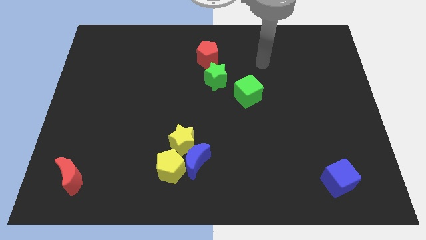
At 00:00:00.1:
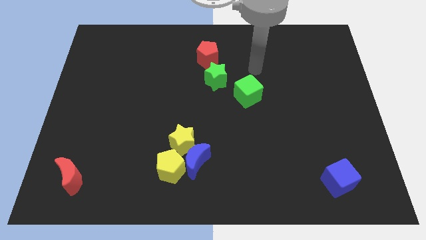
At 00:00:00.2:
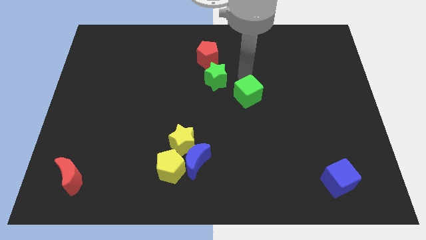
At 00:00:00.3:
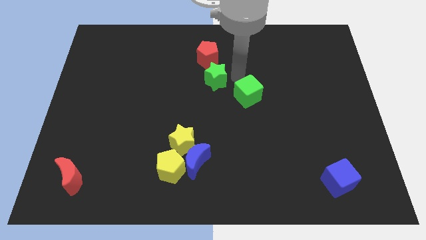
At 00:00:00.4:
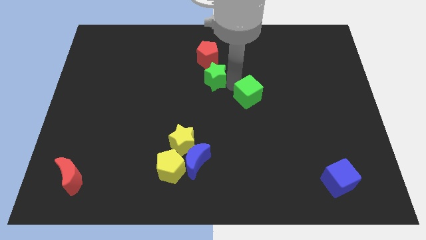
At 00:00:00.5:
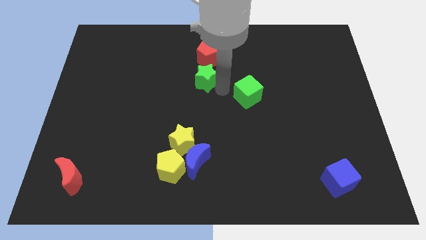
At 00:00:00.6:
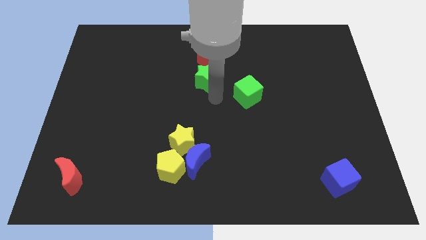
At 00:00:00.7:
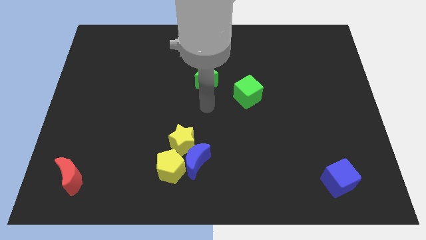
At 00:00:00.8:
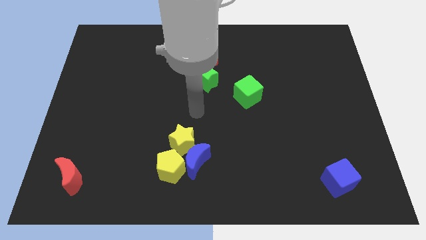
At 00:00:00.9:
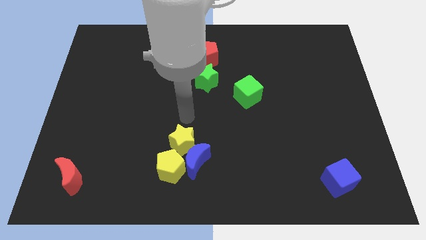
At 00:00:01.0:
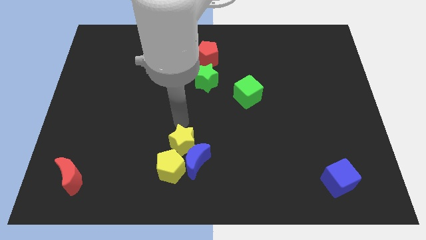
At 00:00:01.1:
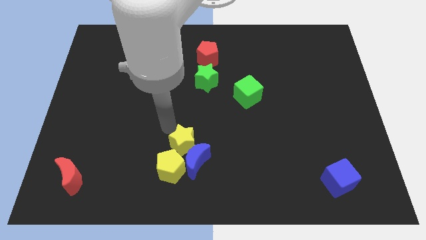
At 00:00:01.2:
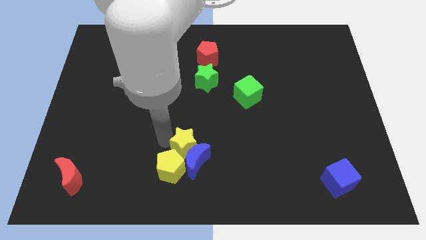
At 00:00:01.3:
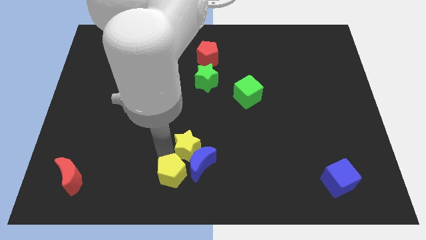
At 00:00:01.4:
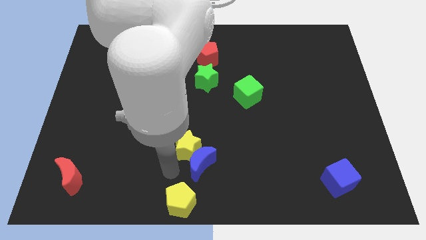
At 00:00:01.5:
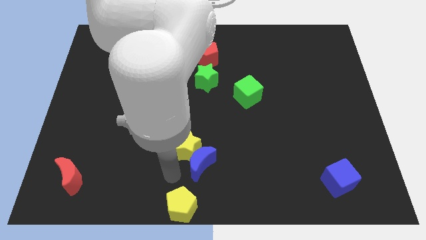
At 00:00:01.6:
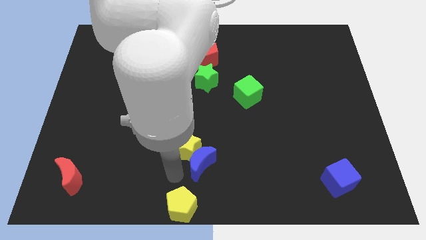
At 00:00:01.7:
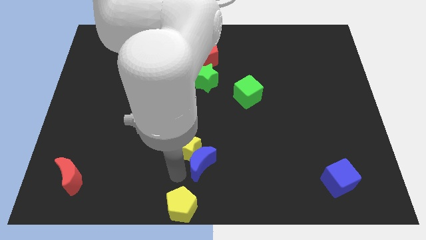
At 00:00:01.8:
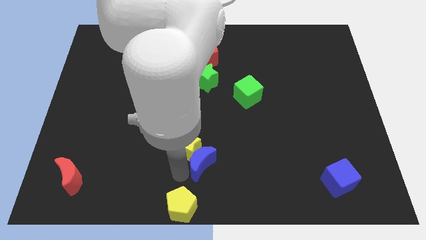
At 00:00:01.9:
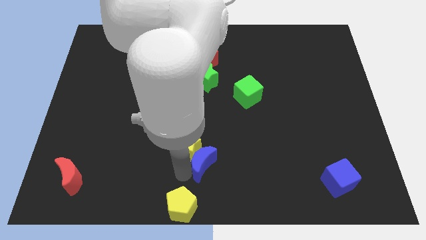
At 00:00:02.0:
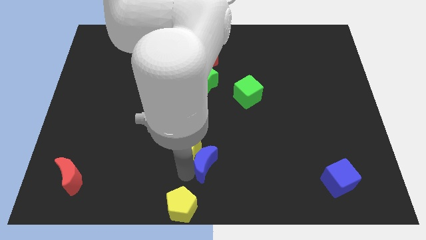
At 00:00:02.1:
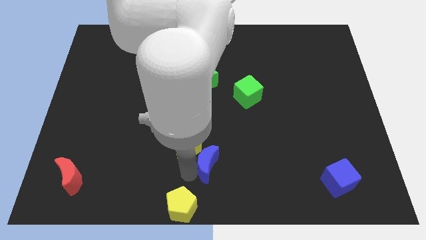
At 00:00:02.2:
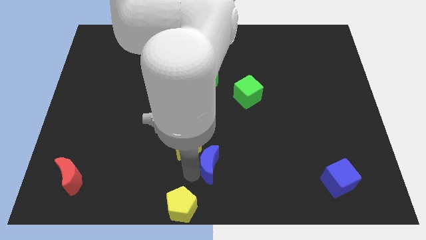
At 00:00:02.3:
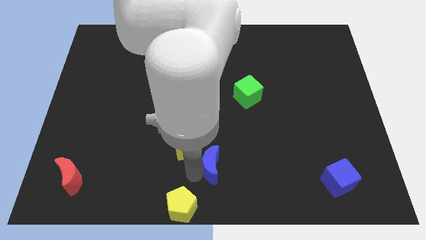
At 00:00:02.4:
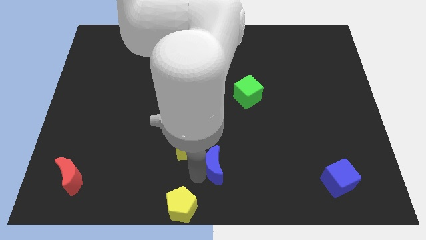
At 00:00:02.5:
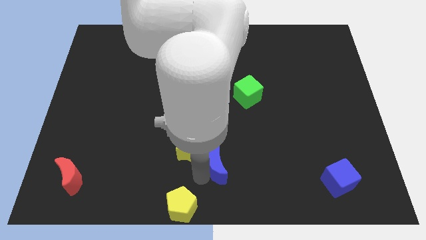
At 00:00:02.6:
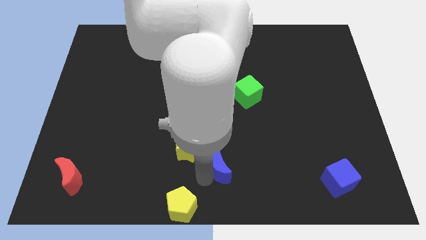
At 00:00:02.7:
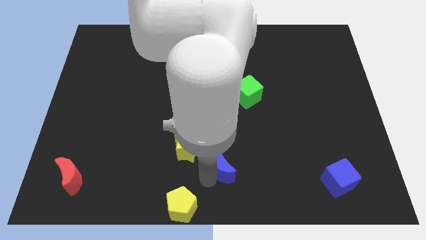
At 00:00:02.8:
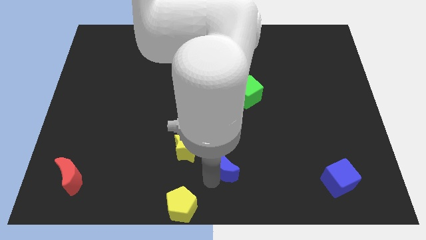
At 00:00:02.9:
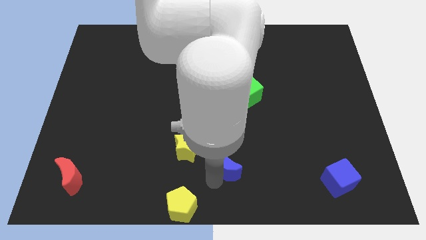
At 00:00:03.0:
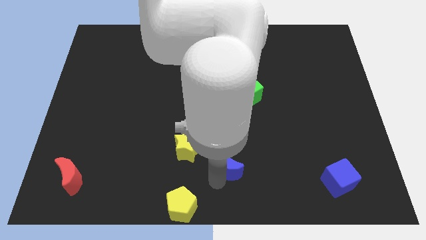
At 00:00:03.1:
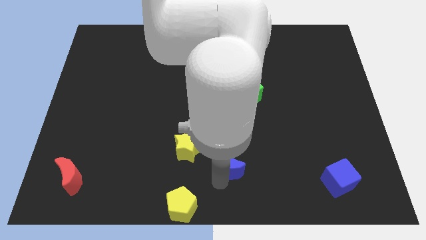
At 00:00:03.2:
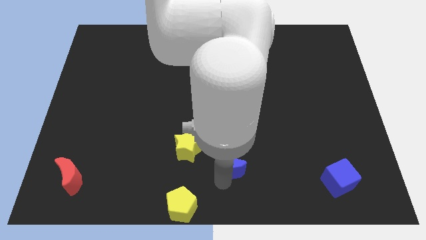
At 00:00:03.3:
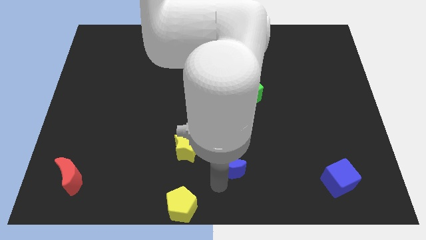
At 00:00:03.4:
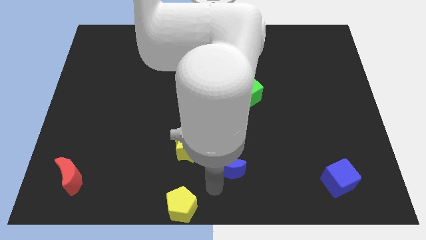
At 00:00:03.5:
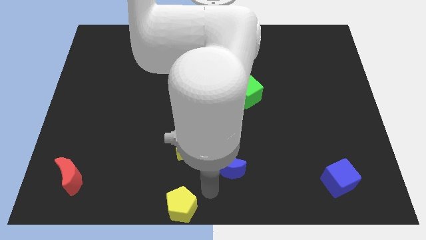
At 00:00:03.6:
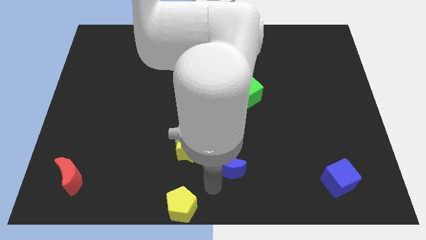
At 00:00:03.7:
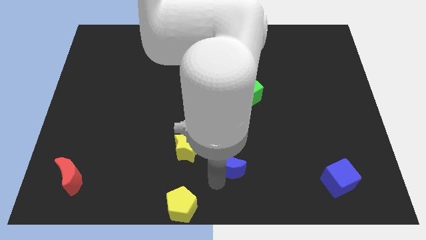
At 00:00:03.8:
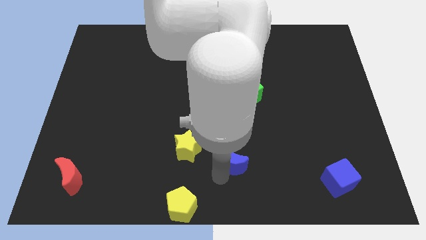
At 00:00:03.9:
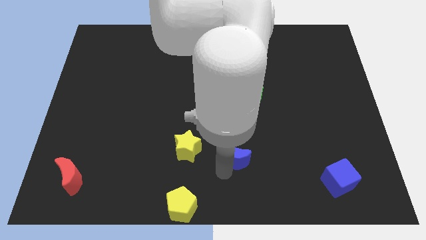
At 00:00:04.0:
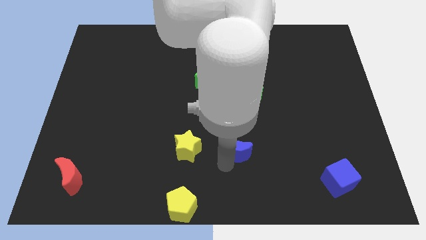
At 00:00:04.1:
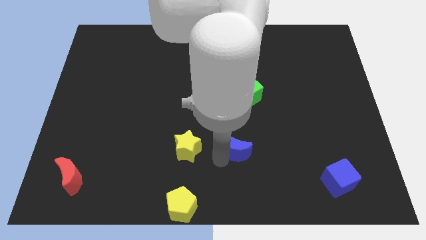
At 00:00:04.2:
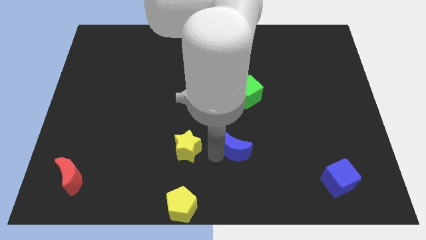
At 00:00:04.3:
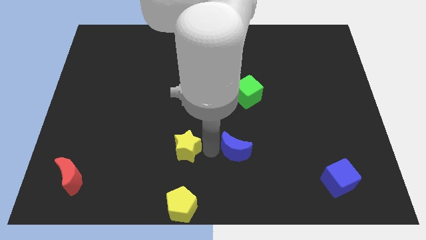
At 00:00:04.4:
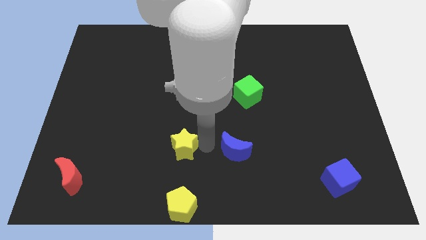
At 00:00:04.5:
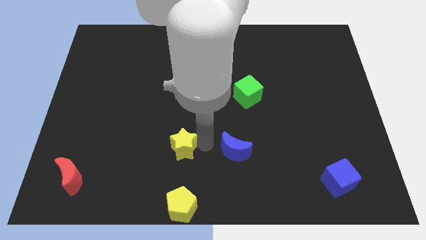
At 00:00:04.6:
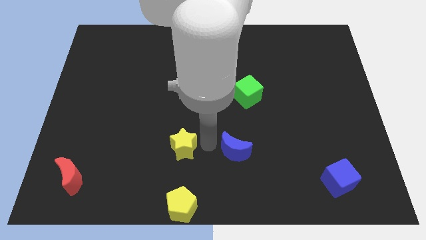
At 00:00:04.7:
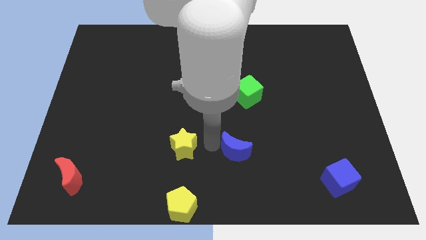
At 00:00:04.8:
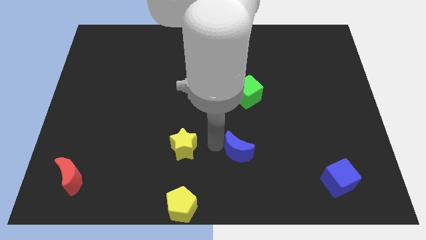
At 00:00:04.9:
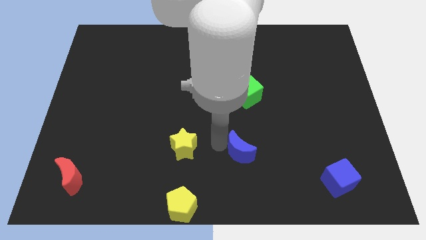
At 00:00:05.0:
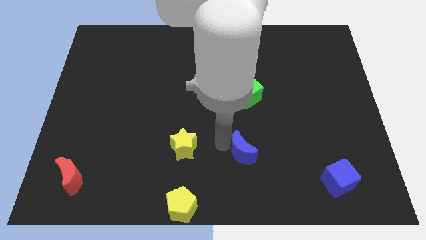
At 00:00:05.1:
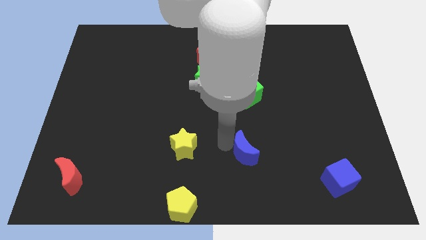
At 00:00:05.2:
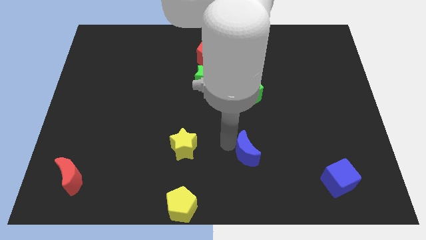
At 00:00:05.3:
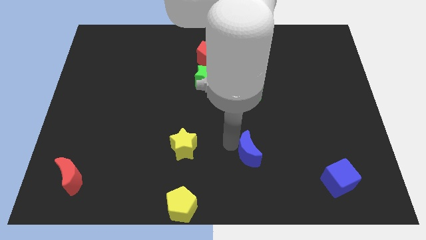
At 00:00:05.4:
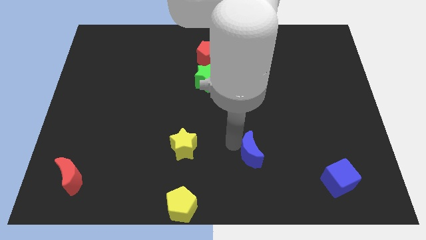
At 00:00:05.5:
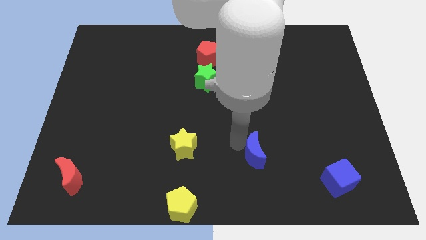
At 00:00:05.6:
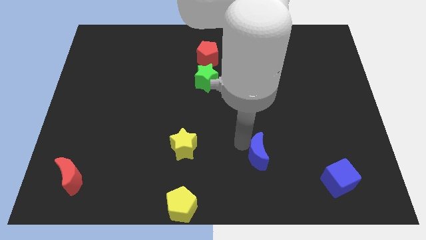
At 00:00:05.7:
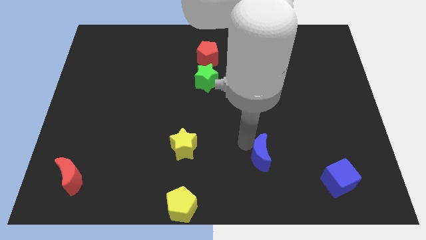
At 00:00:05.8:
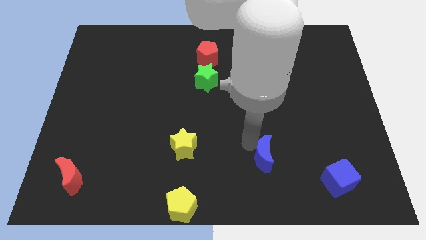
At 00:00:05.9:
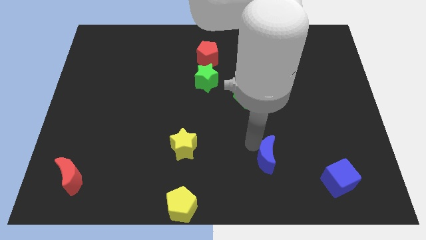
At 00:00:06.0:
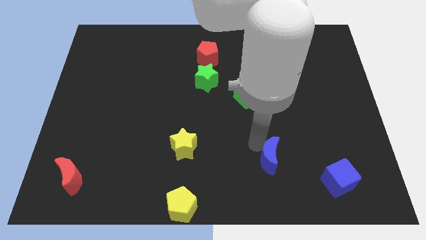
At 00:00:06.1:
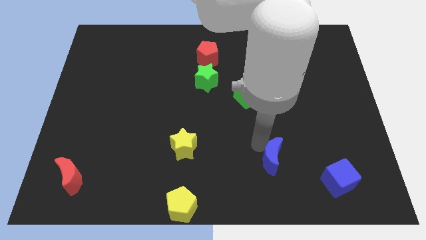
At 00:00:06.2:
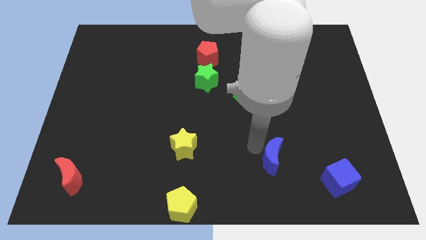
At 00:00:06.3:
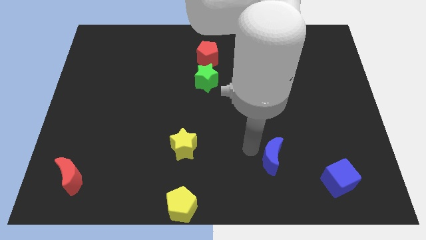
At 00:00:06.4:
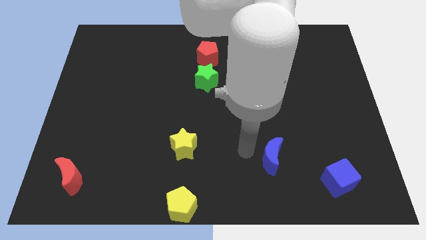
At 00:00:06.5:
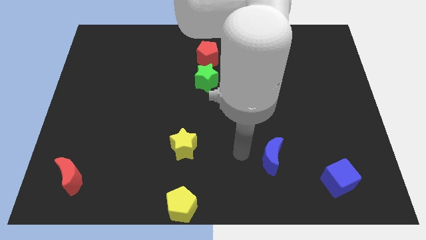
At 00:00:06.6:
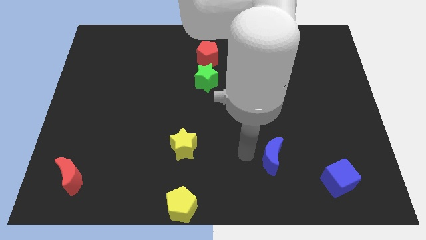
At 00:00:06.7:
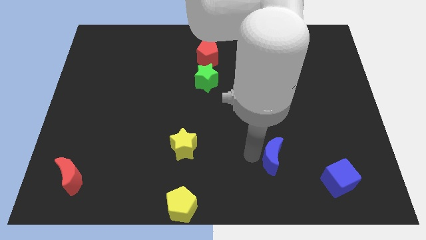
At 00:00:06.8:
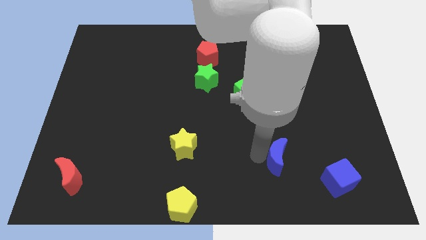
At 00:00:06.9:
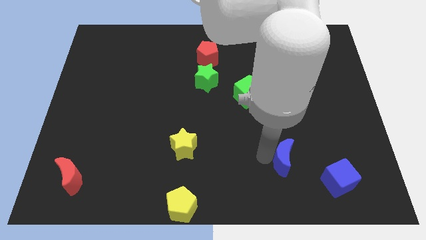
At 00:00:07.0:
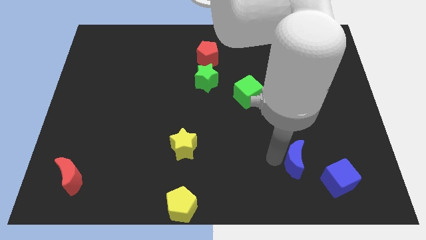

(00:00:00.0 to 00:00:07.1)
move the blue moon right

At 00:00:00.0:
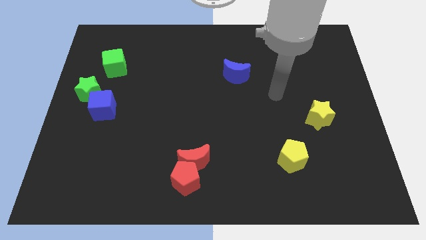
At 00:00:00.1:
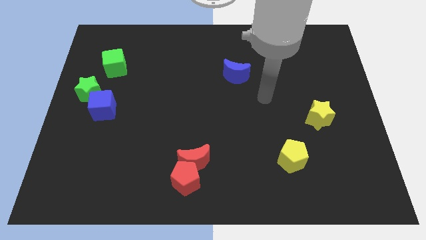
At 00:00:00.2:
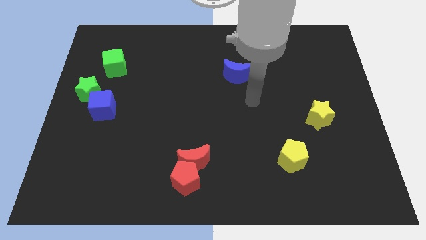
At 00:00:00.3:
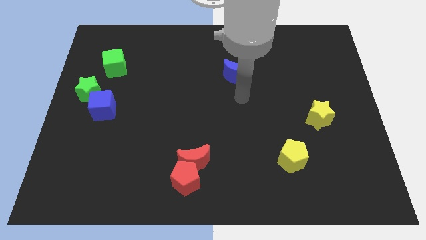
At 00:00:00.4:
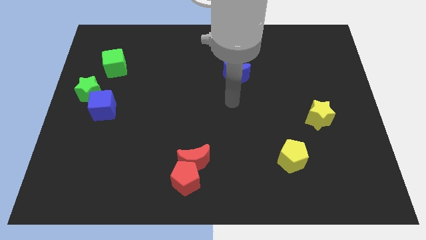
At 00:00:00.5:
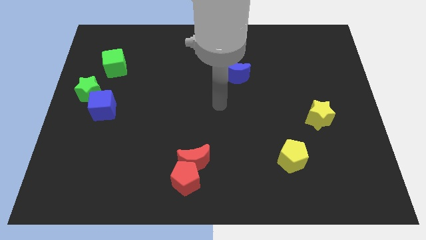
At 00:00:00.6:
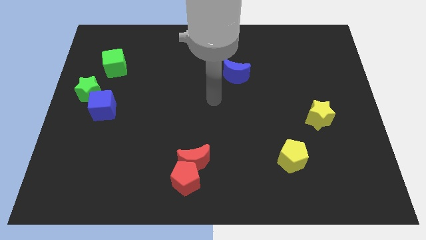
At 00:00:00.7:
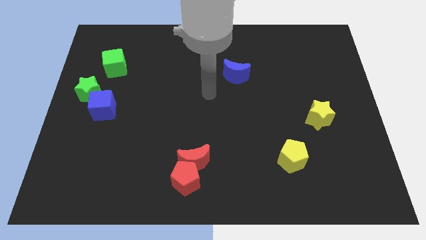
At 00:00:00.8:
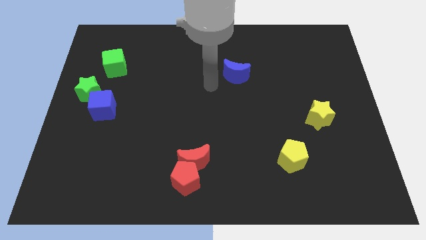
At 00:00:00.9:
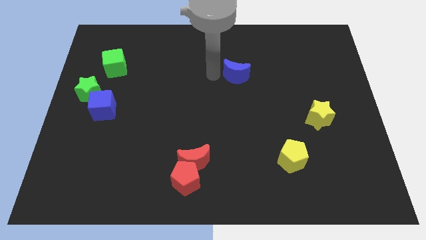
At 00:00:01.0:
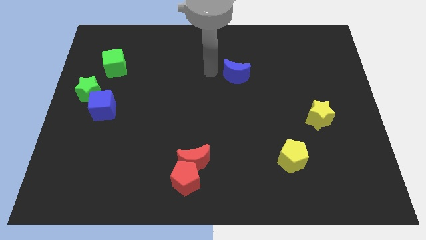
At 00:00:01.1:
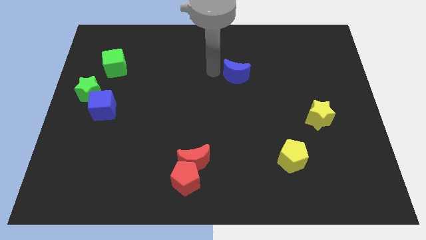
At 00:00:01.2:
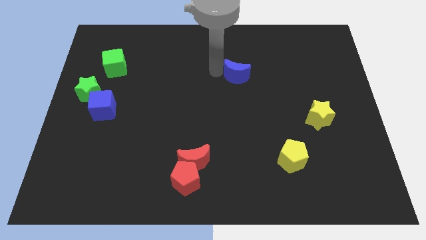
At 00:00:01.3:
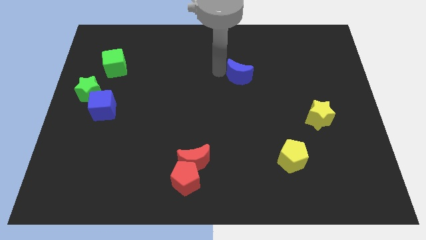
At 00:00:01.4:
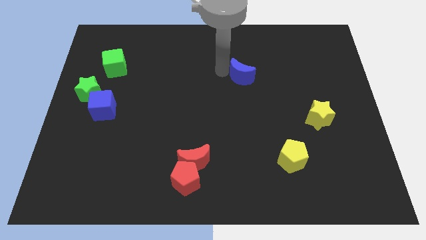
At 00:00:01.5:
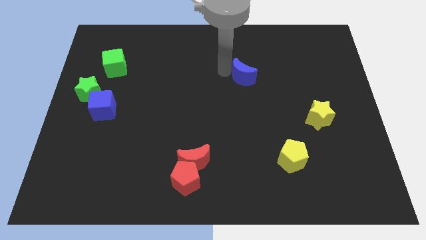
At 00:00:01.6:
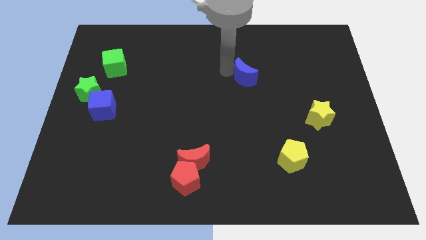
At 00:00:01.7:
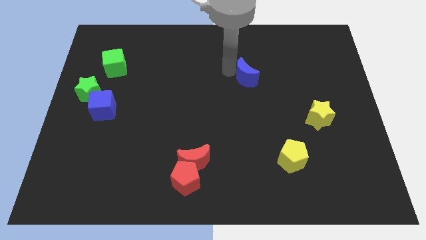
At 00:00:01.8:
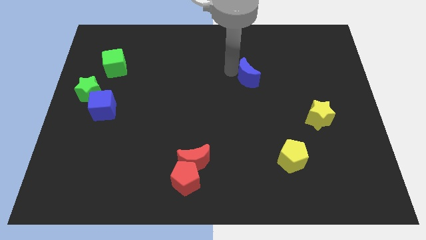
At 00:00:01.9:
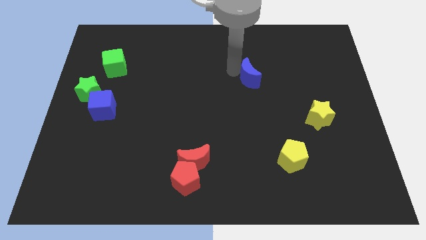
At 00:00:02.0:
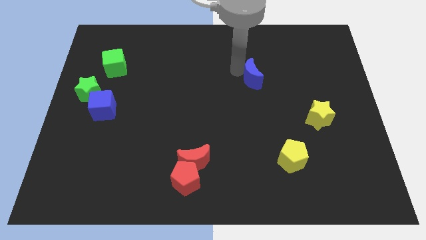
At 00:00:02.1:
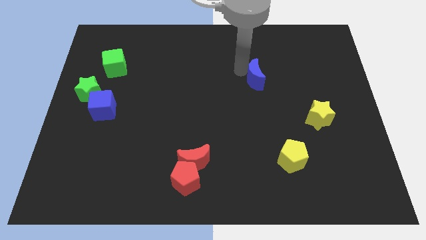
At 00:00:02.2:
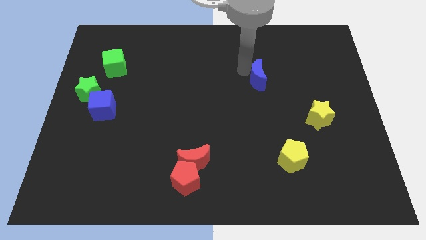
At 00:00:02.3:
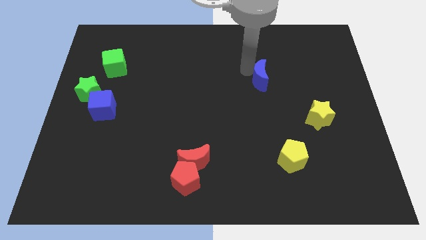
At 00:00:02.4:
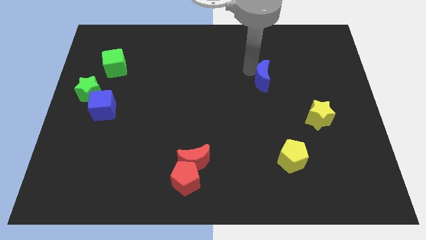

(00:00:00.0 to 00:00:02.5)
slide the blue moon to the right a little
